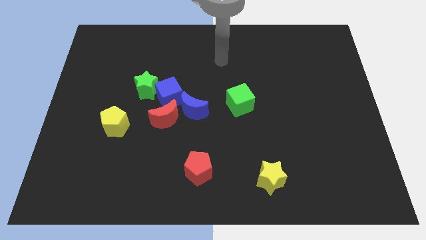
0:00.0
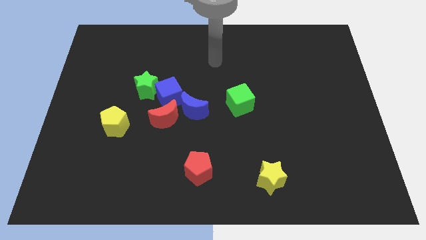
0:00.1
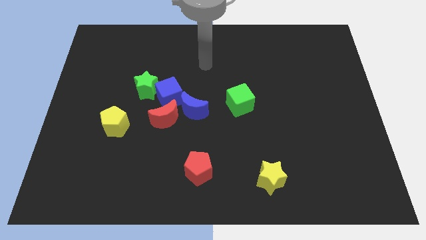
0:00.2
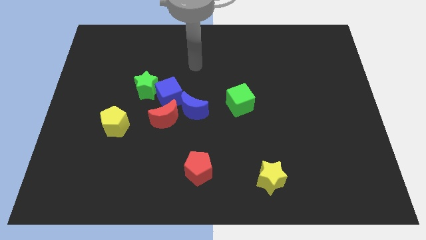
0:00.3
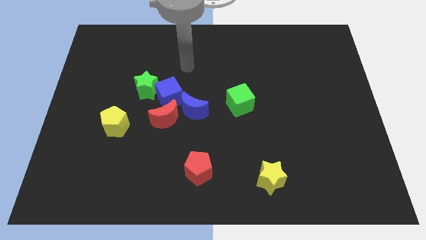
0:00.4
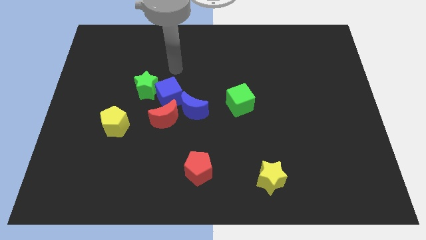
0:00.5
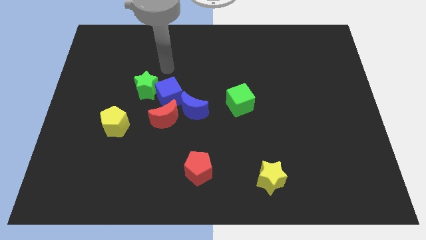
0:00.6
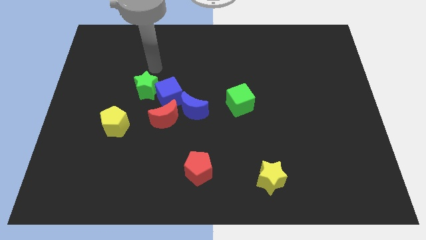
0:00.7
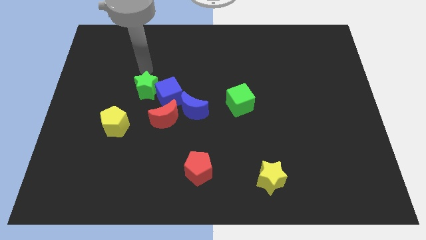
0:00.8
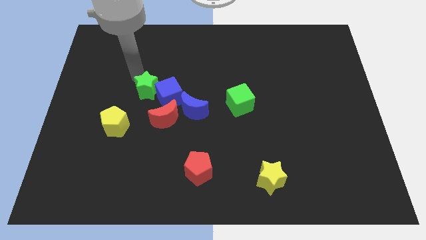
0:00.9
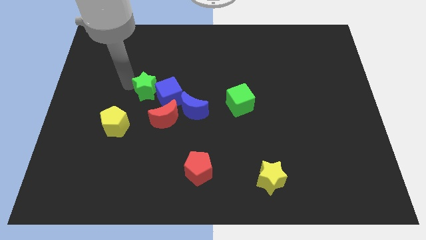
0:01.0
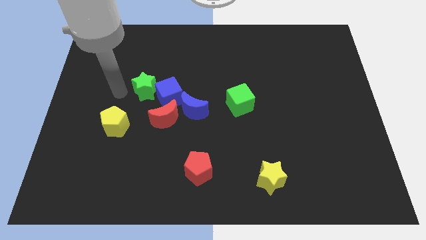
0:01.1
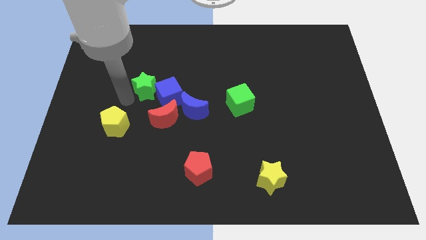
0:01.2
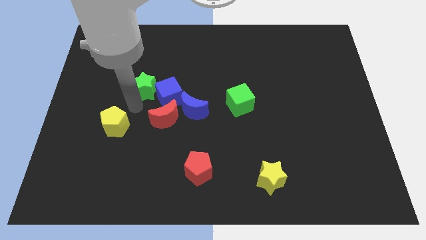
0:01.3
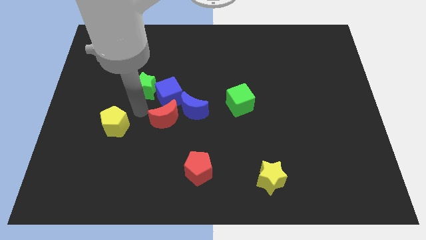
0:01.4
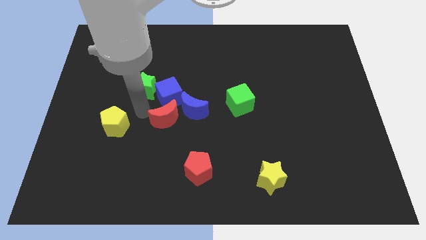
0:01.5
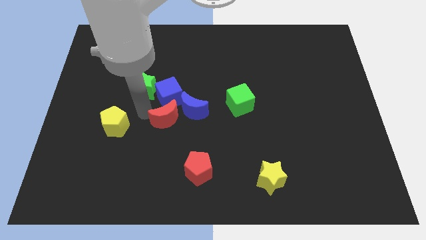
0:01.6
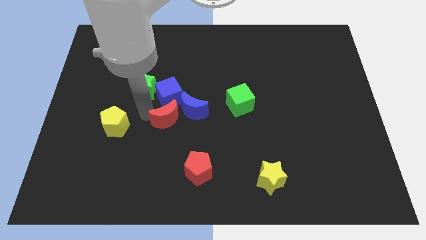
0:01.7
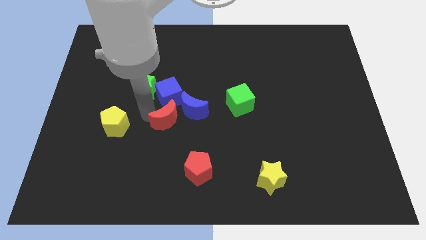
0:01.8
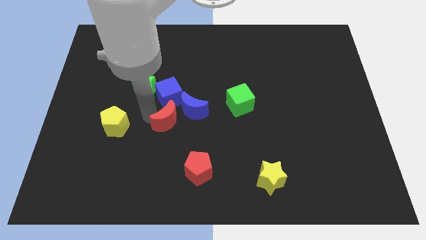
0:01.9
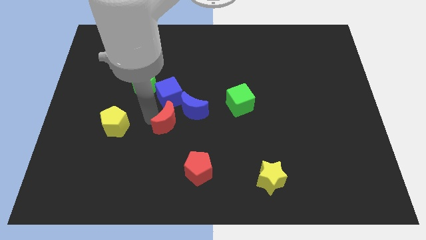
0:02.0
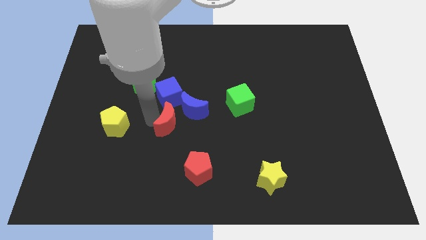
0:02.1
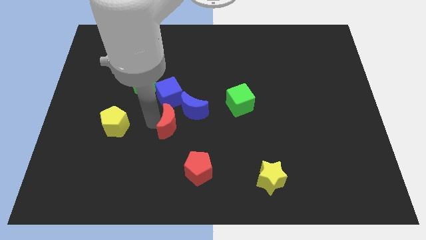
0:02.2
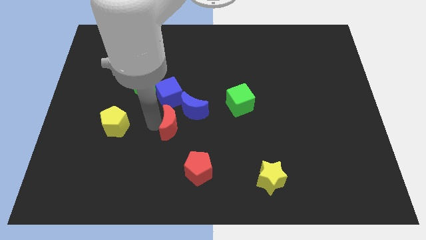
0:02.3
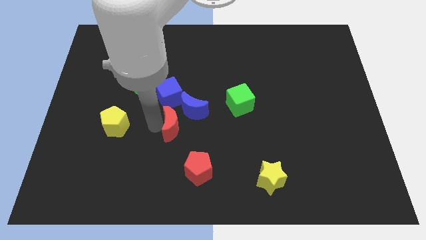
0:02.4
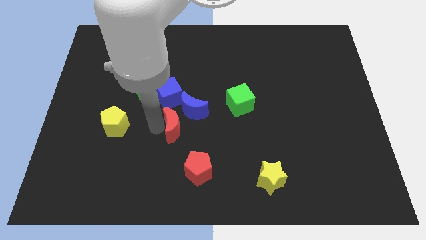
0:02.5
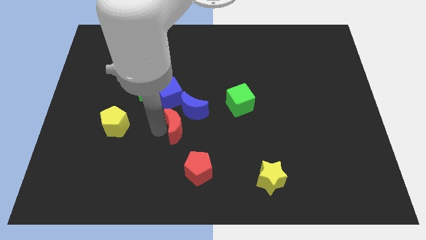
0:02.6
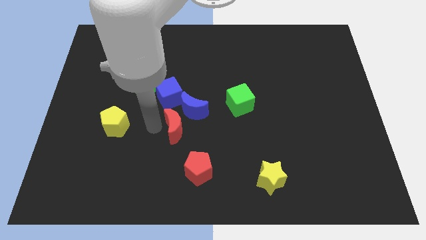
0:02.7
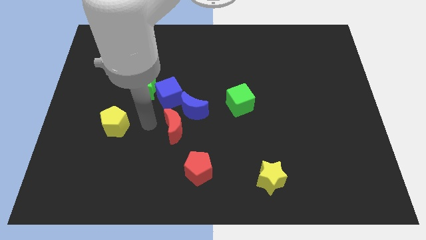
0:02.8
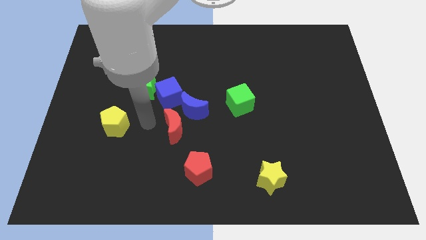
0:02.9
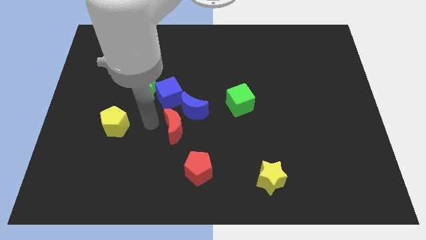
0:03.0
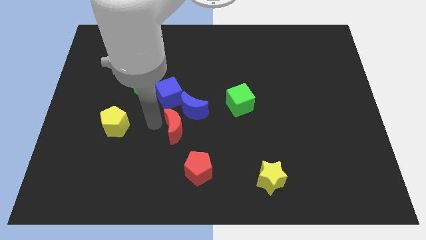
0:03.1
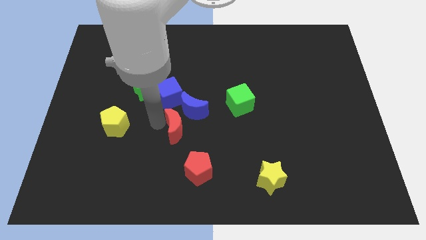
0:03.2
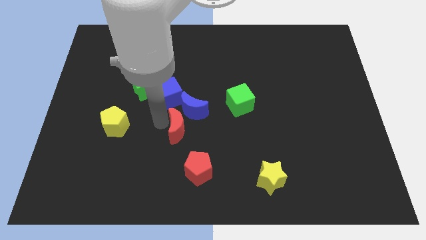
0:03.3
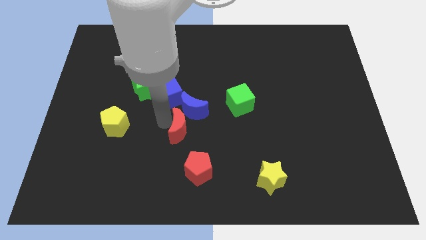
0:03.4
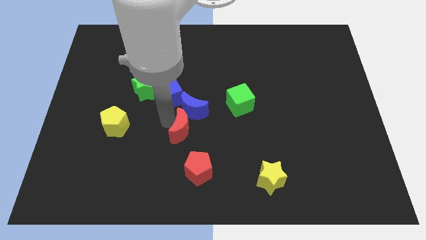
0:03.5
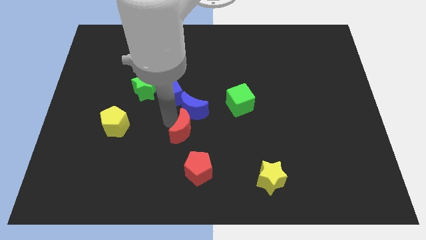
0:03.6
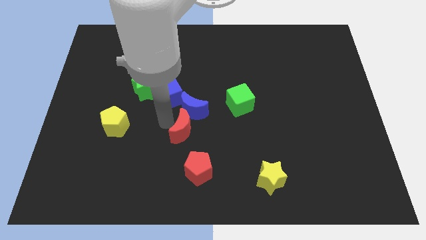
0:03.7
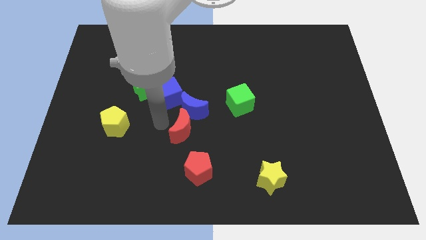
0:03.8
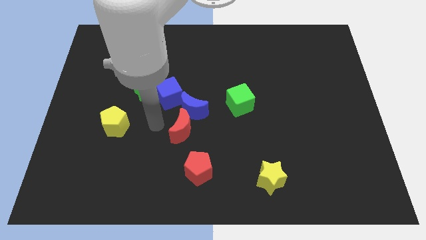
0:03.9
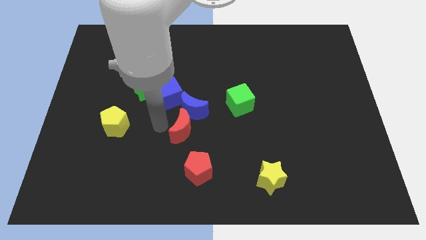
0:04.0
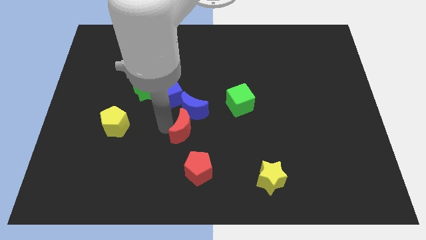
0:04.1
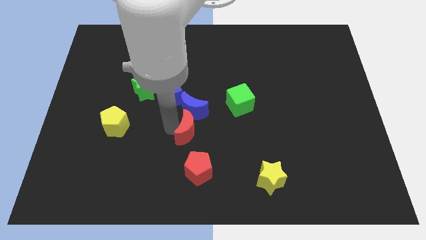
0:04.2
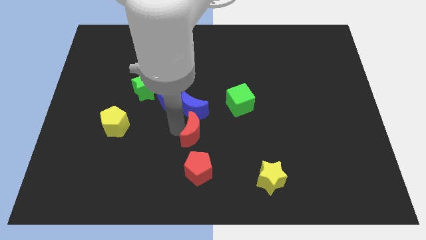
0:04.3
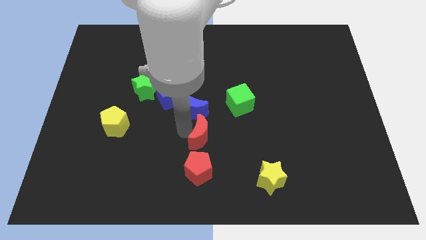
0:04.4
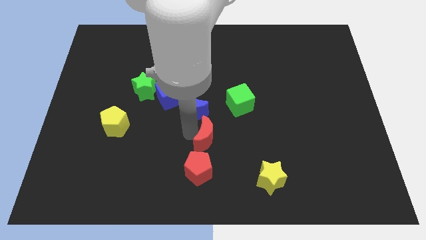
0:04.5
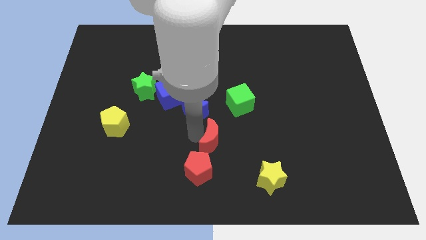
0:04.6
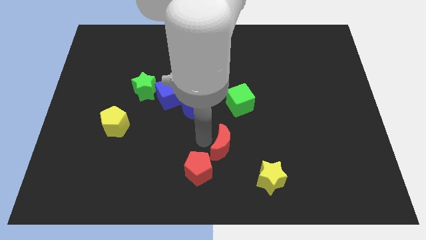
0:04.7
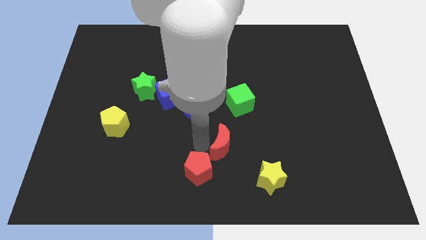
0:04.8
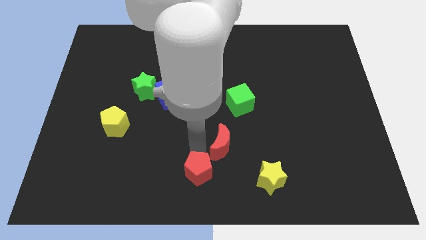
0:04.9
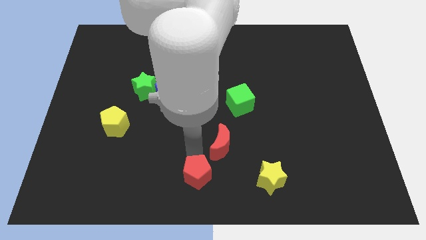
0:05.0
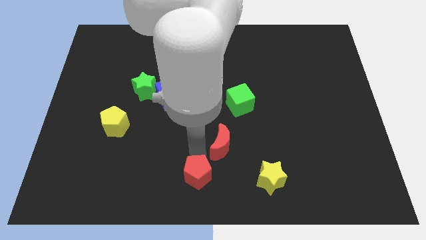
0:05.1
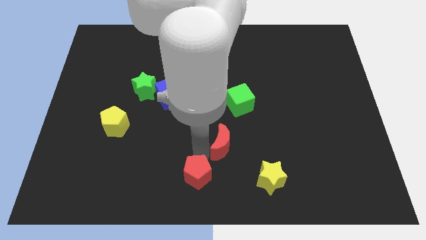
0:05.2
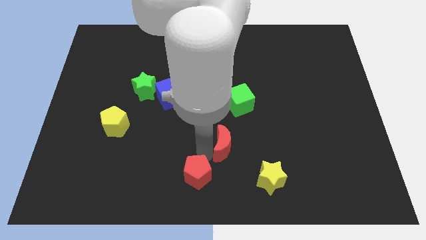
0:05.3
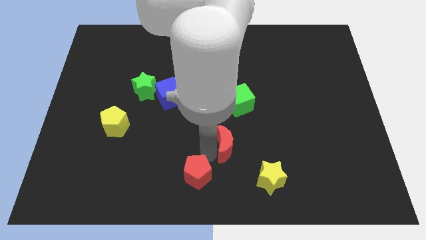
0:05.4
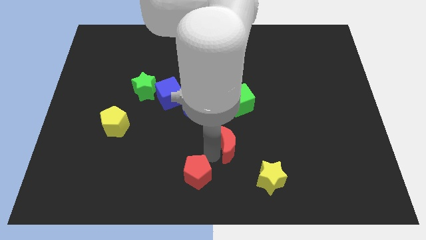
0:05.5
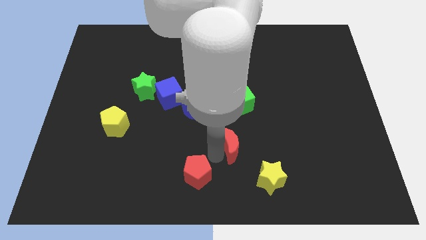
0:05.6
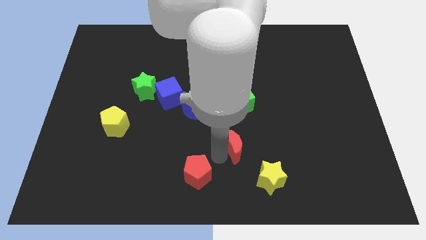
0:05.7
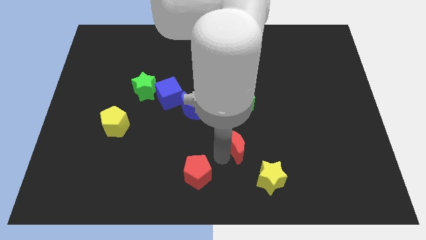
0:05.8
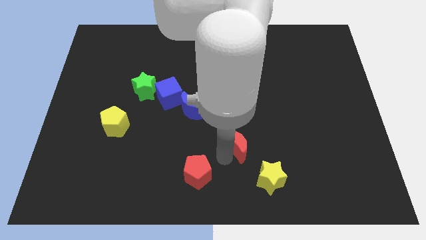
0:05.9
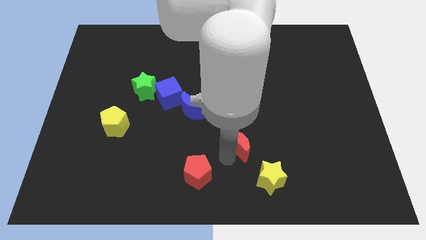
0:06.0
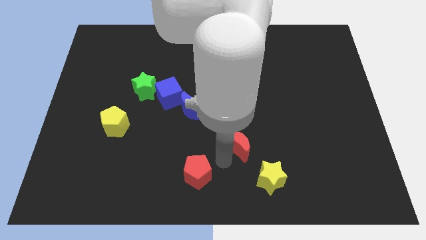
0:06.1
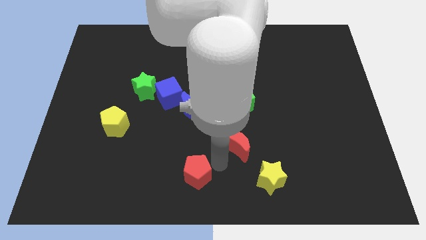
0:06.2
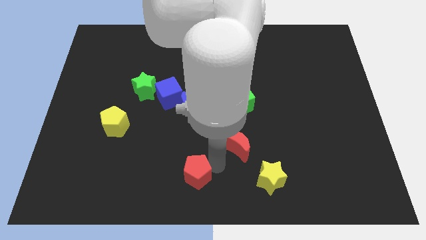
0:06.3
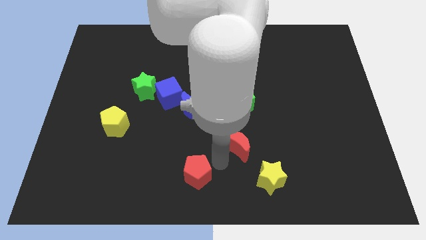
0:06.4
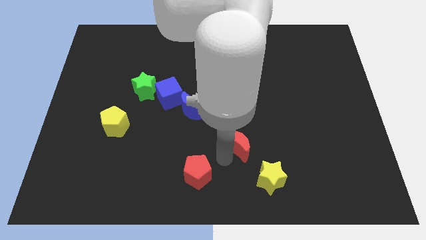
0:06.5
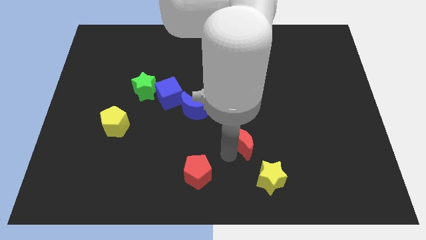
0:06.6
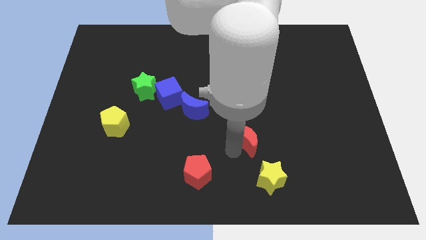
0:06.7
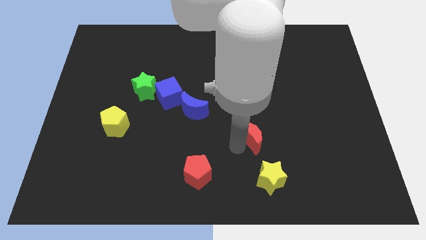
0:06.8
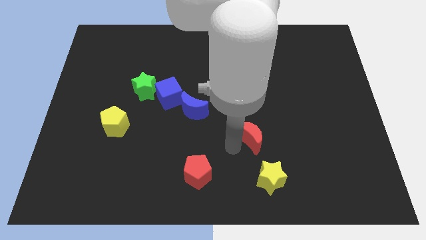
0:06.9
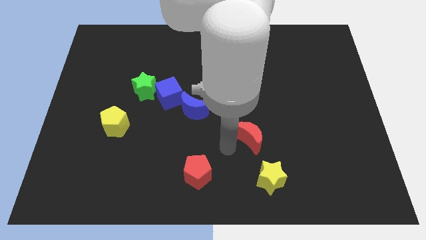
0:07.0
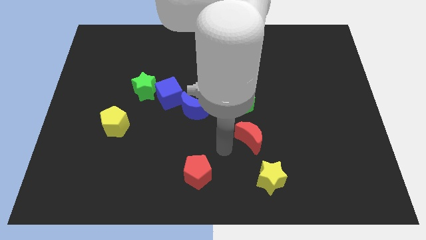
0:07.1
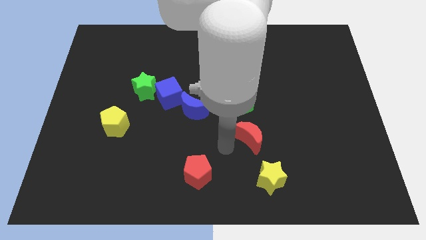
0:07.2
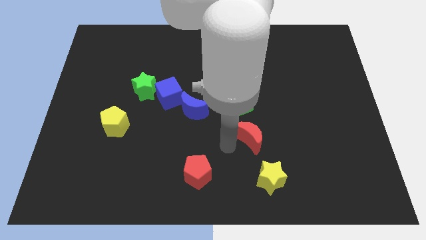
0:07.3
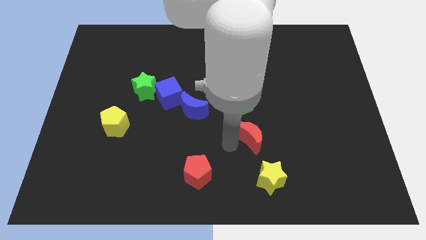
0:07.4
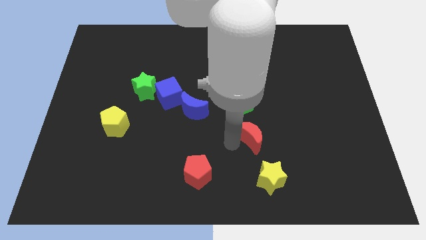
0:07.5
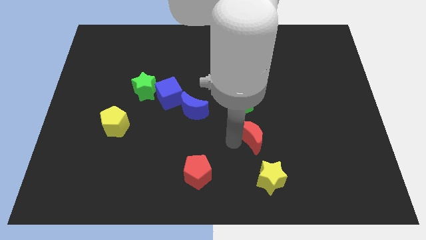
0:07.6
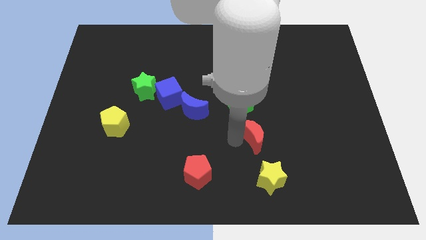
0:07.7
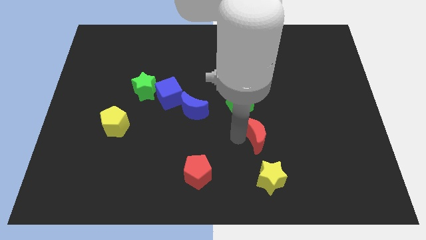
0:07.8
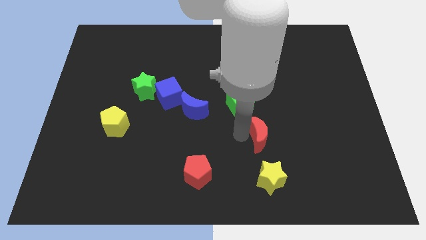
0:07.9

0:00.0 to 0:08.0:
slide the red moon right
